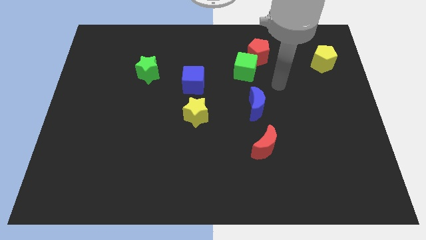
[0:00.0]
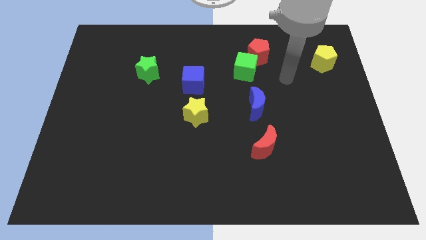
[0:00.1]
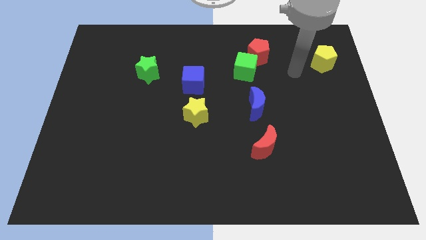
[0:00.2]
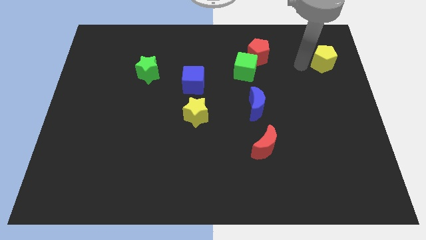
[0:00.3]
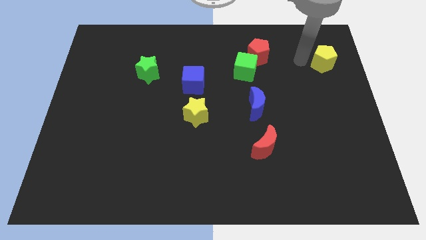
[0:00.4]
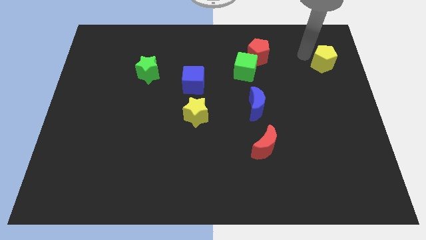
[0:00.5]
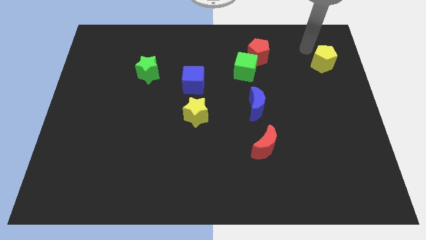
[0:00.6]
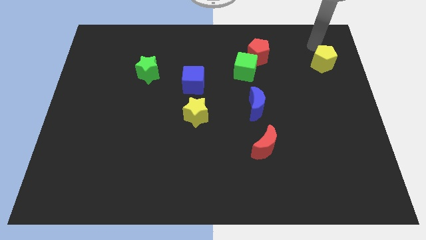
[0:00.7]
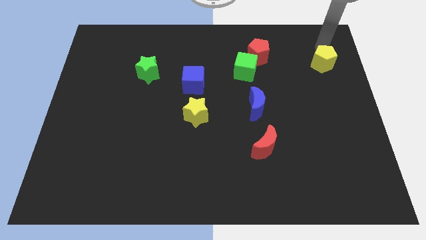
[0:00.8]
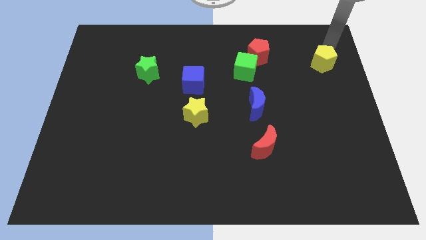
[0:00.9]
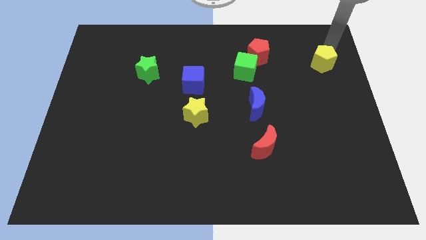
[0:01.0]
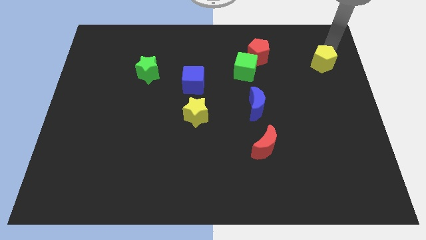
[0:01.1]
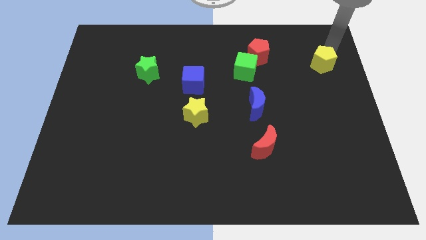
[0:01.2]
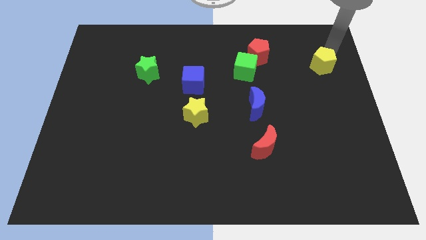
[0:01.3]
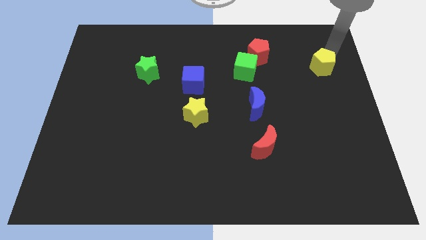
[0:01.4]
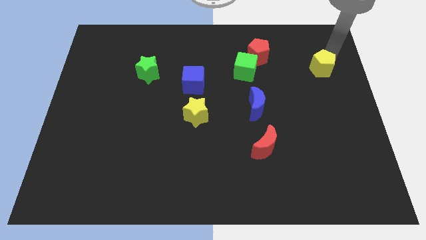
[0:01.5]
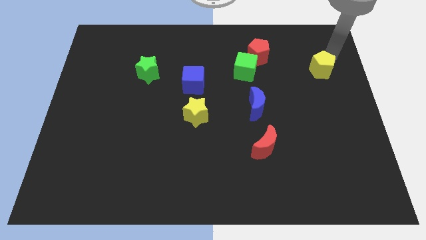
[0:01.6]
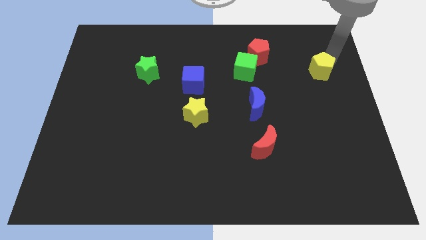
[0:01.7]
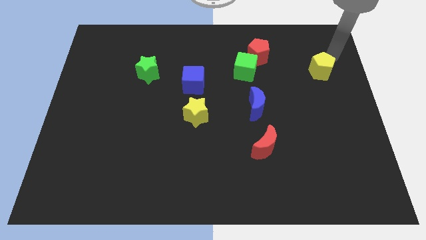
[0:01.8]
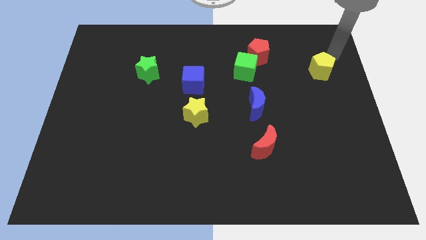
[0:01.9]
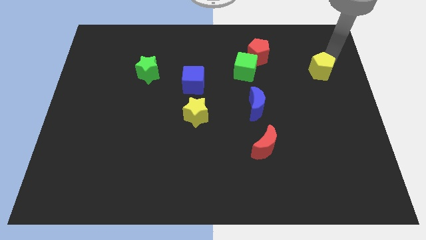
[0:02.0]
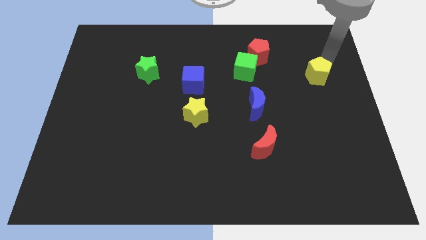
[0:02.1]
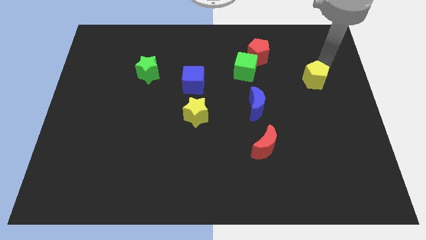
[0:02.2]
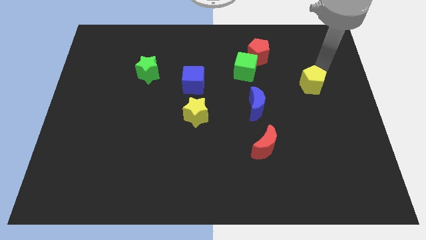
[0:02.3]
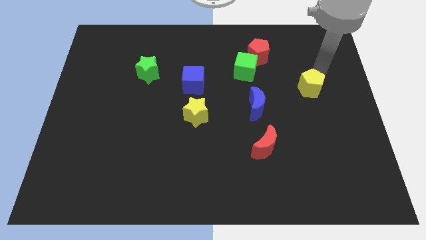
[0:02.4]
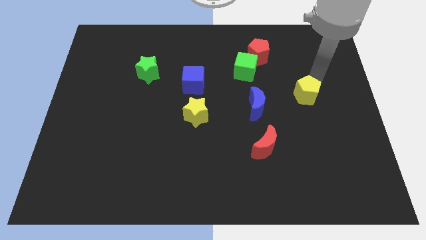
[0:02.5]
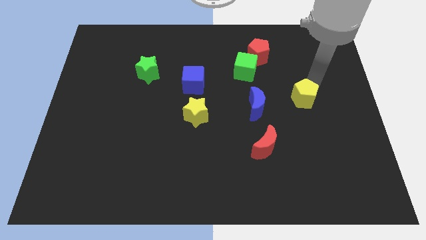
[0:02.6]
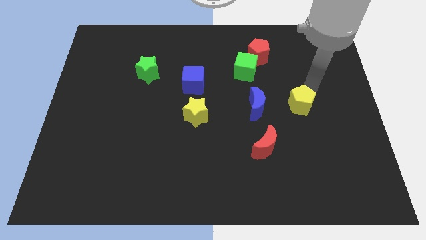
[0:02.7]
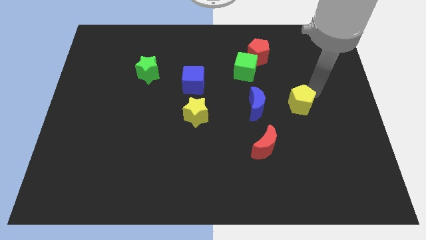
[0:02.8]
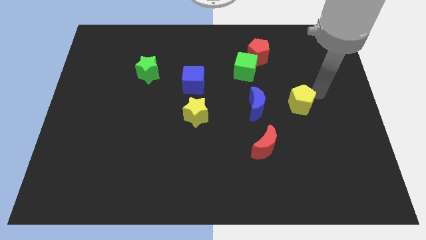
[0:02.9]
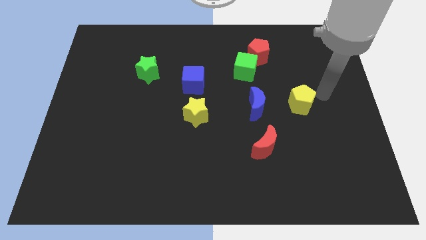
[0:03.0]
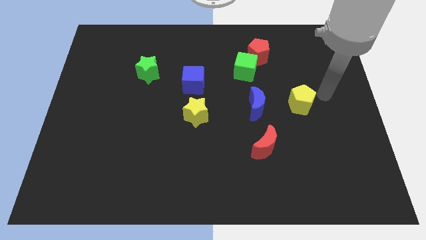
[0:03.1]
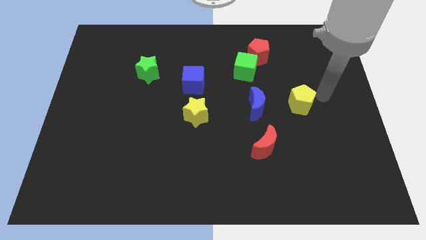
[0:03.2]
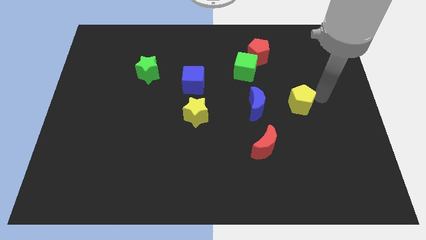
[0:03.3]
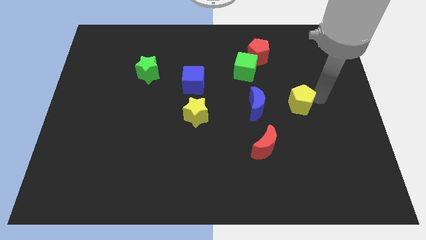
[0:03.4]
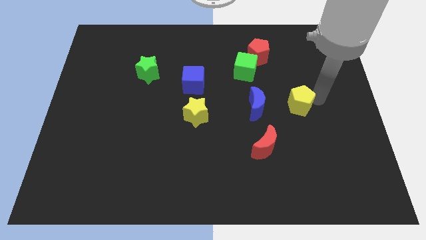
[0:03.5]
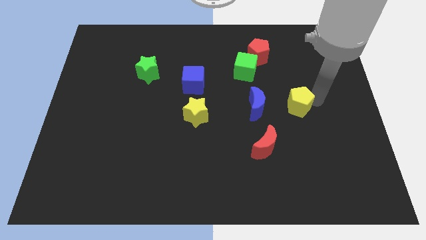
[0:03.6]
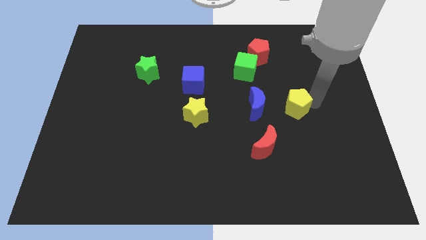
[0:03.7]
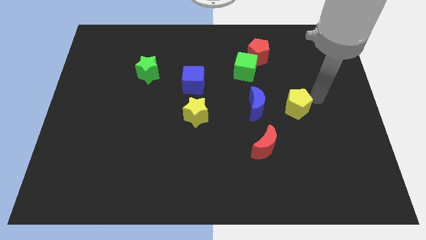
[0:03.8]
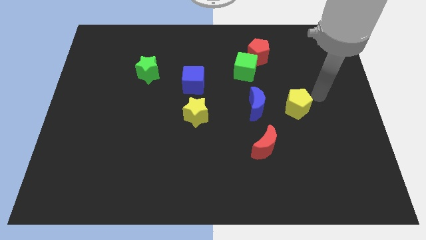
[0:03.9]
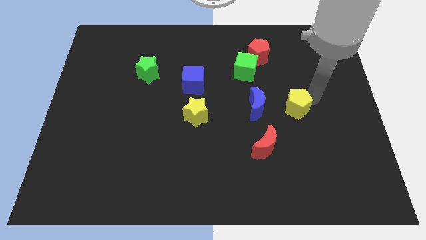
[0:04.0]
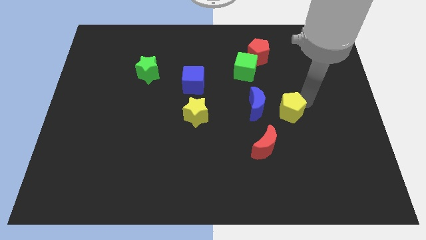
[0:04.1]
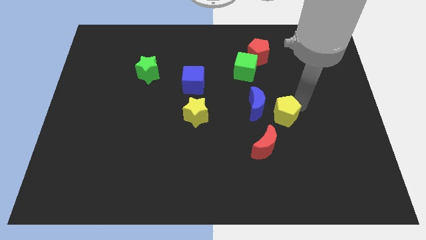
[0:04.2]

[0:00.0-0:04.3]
move the yellow pentagon downwards and to the left

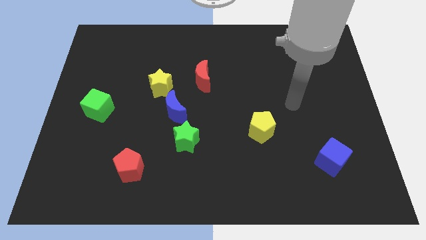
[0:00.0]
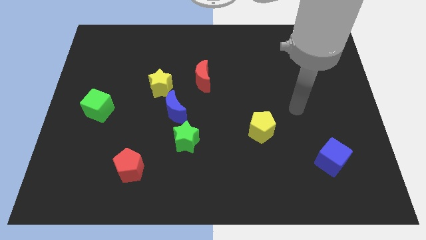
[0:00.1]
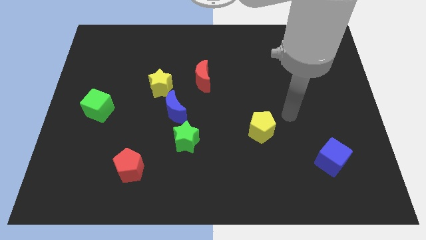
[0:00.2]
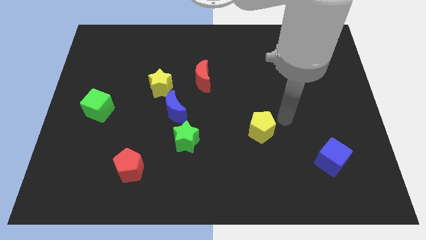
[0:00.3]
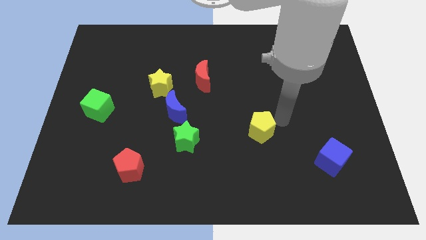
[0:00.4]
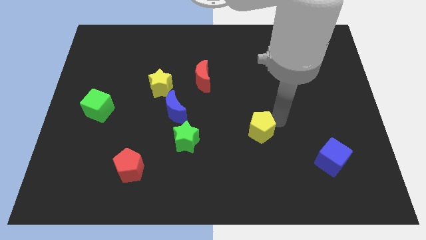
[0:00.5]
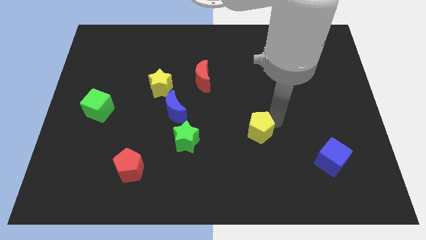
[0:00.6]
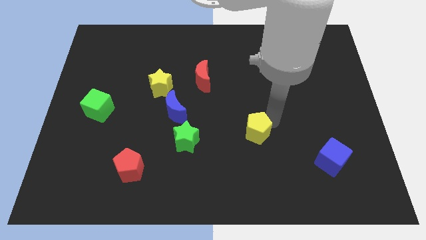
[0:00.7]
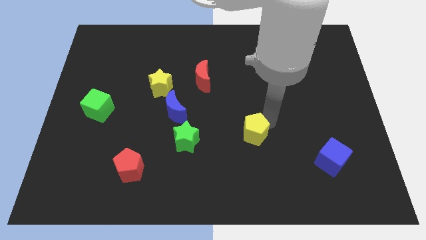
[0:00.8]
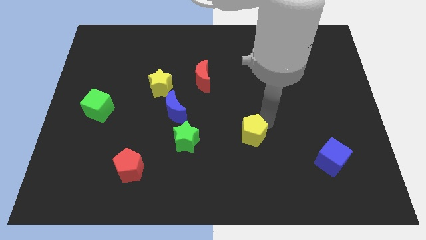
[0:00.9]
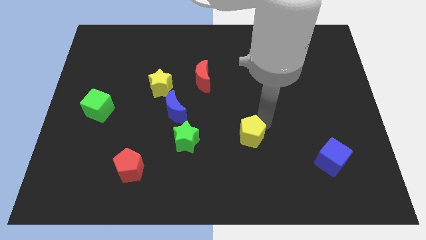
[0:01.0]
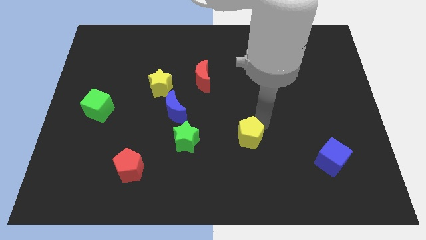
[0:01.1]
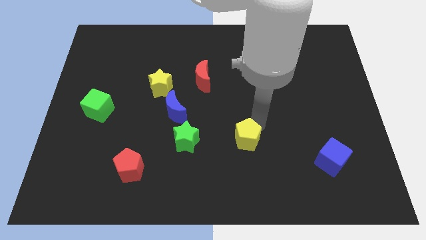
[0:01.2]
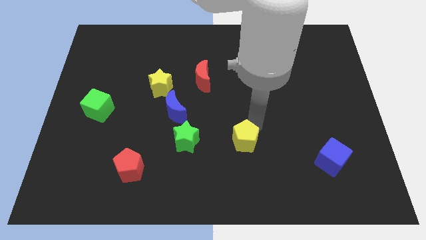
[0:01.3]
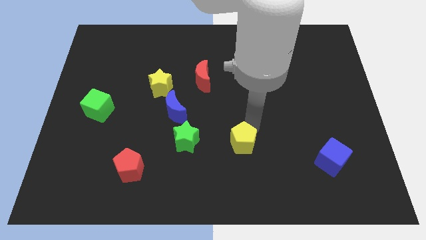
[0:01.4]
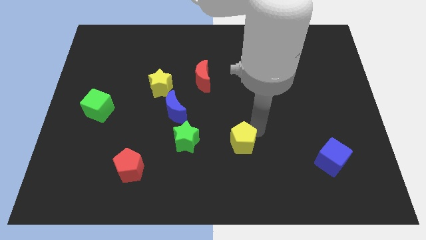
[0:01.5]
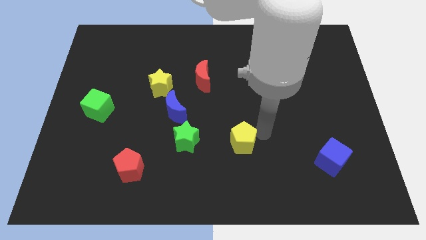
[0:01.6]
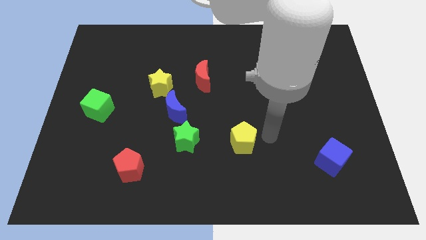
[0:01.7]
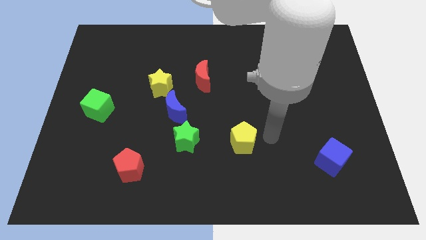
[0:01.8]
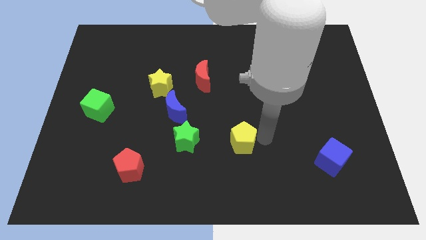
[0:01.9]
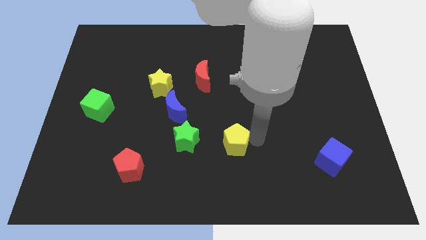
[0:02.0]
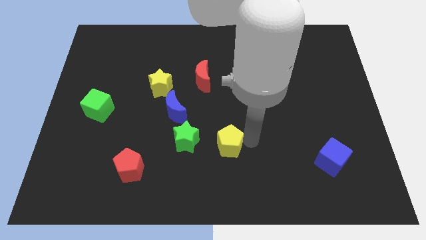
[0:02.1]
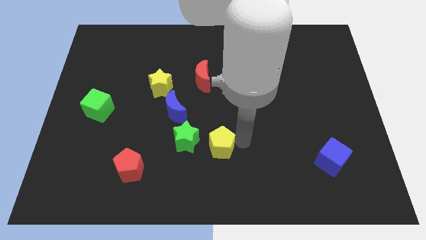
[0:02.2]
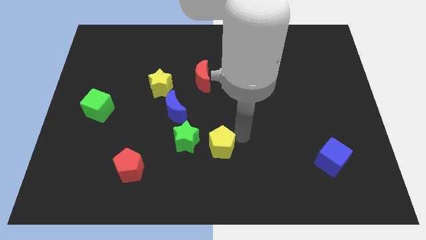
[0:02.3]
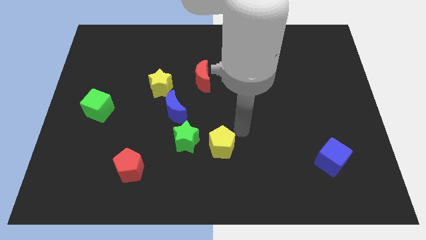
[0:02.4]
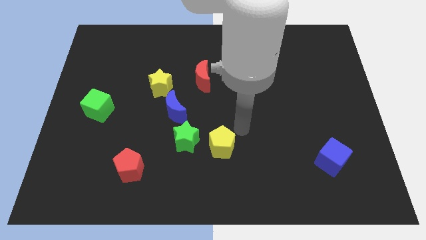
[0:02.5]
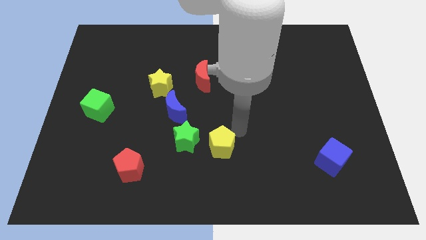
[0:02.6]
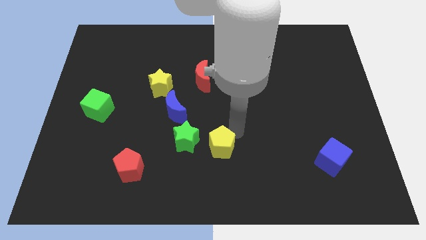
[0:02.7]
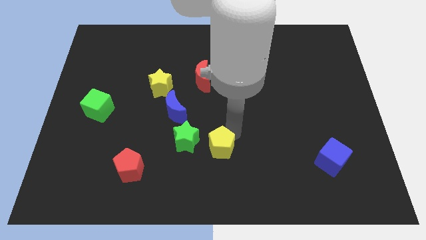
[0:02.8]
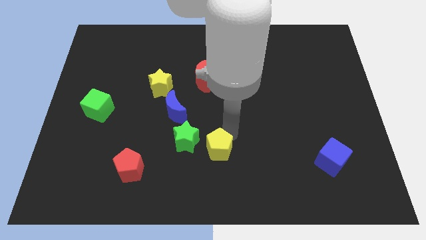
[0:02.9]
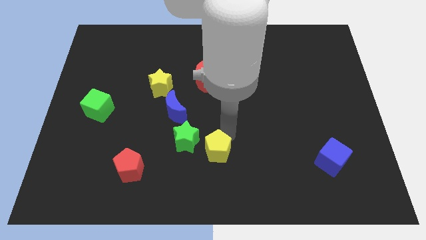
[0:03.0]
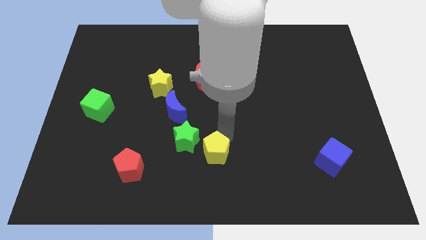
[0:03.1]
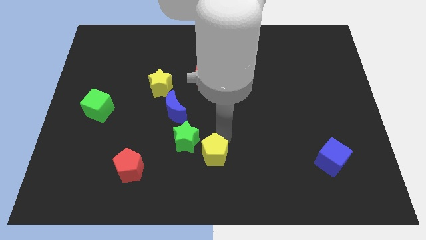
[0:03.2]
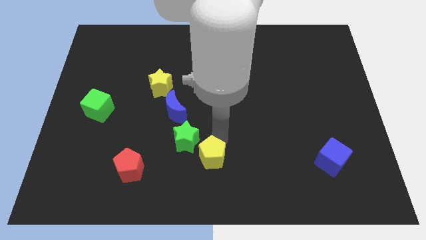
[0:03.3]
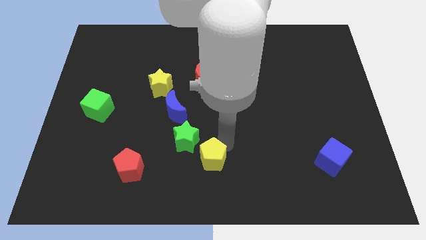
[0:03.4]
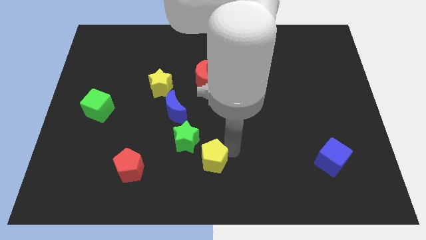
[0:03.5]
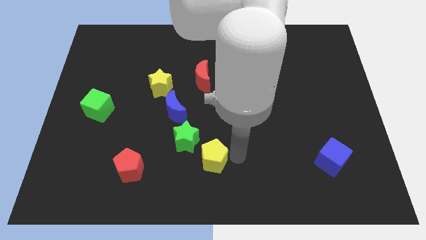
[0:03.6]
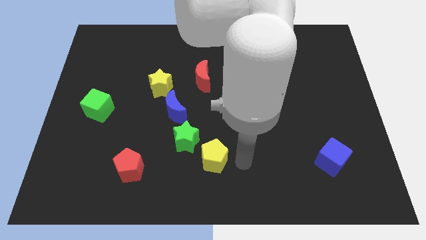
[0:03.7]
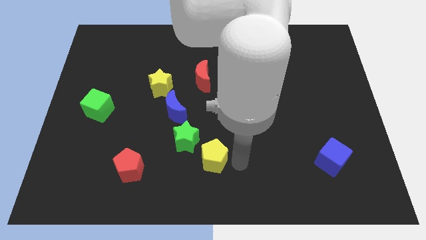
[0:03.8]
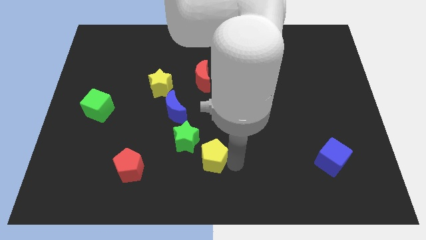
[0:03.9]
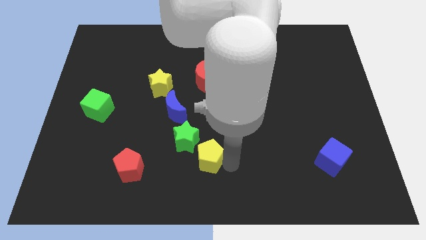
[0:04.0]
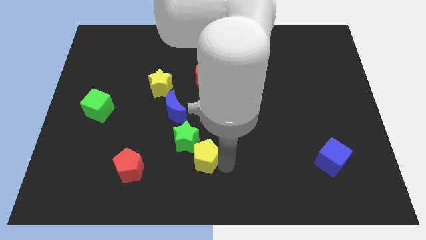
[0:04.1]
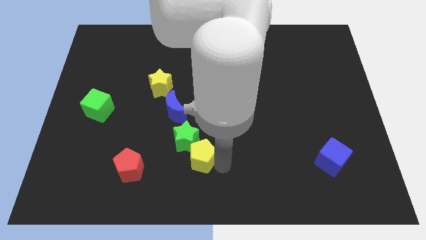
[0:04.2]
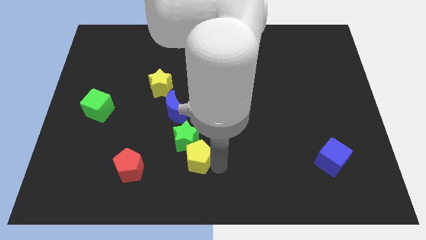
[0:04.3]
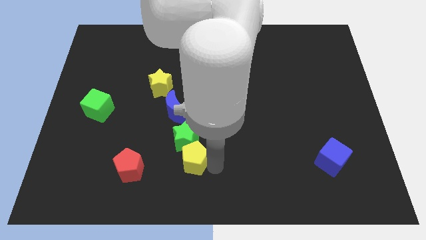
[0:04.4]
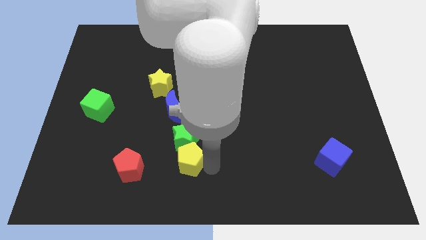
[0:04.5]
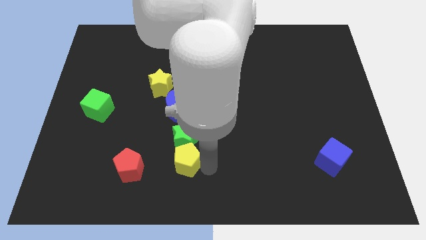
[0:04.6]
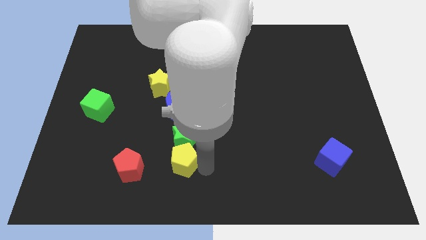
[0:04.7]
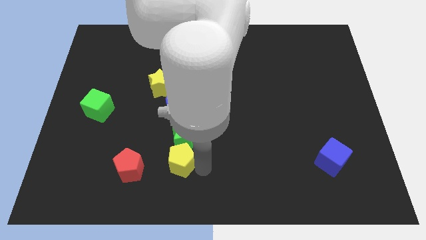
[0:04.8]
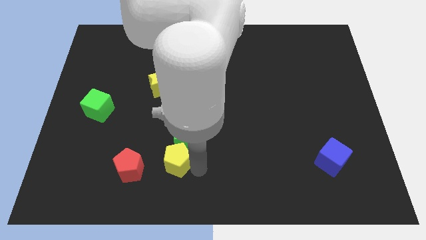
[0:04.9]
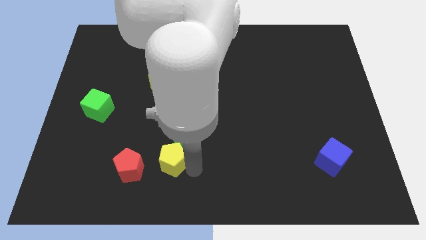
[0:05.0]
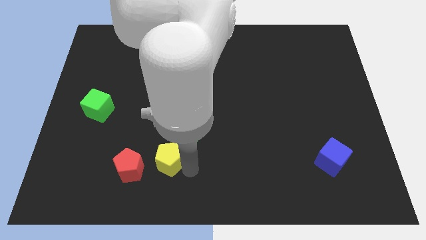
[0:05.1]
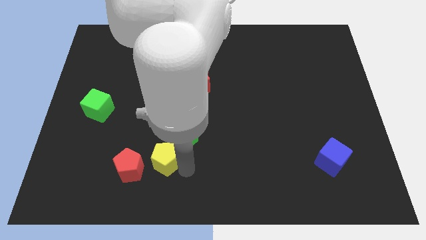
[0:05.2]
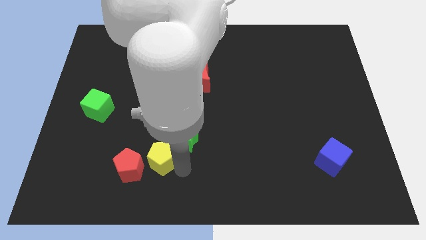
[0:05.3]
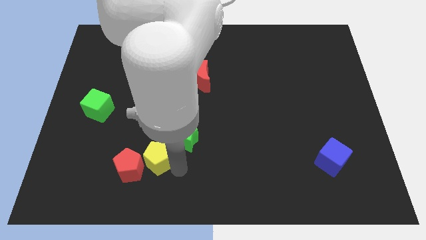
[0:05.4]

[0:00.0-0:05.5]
slide the yellow pentagon to the left
